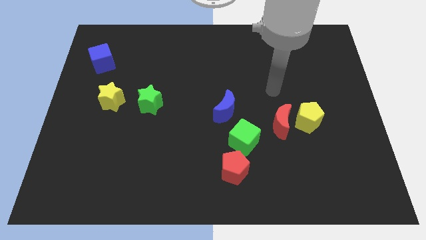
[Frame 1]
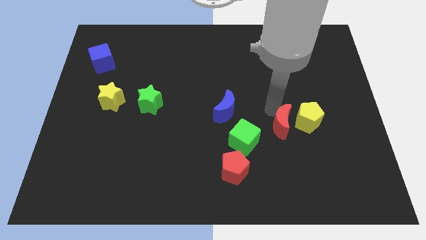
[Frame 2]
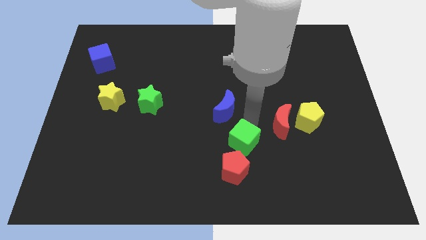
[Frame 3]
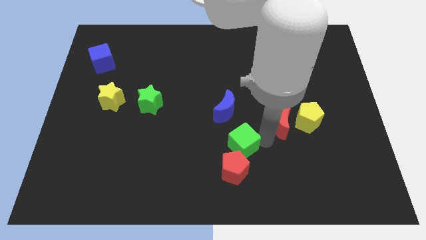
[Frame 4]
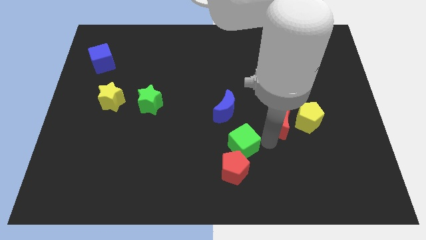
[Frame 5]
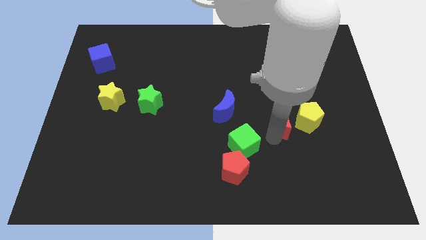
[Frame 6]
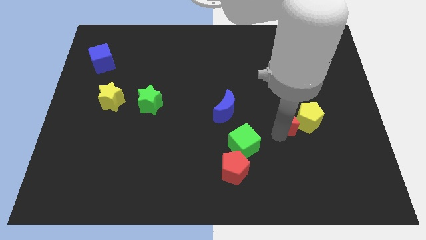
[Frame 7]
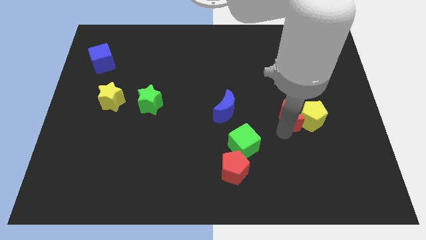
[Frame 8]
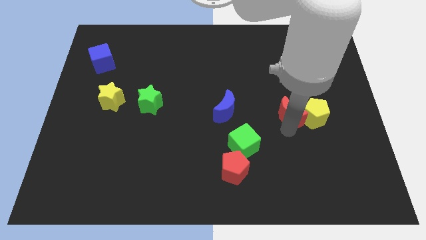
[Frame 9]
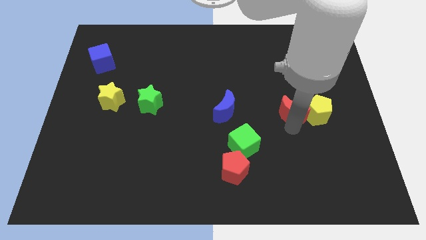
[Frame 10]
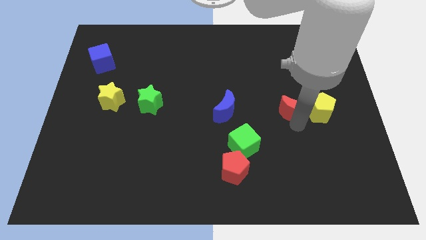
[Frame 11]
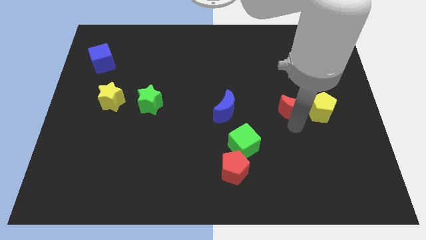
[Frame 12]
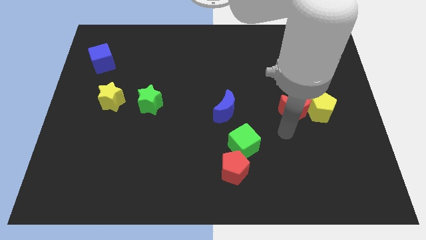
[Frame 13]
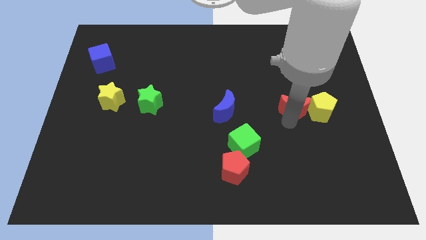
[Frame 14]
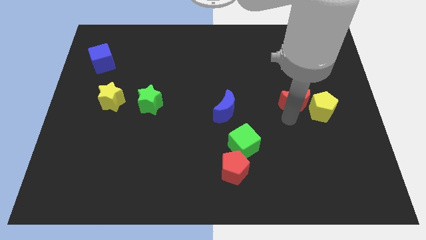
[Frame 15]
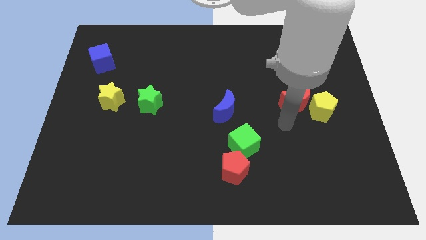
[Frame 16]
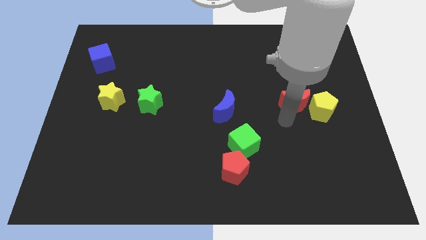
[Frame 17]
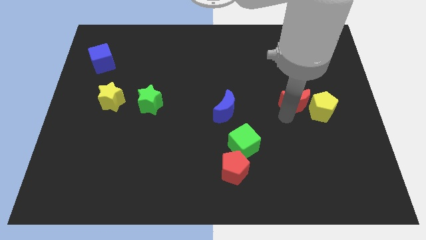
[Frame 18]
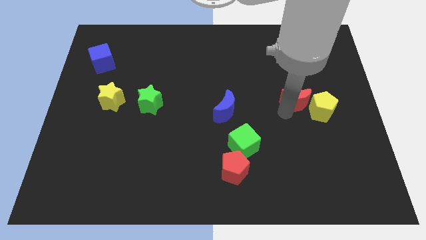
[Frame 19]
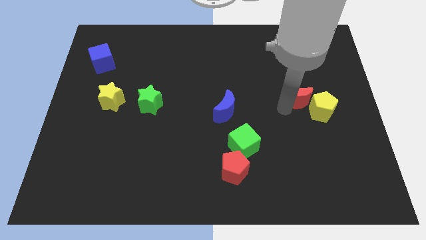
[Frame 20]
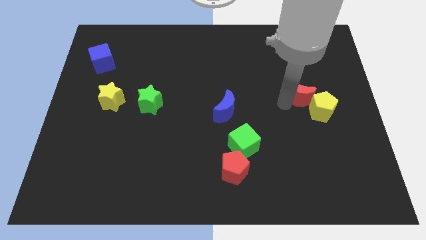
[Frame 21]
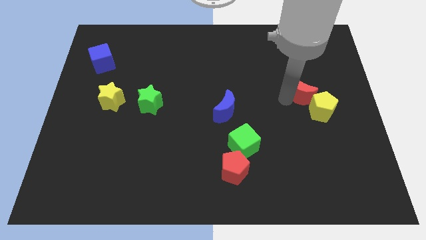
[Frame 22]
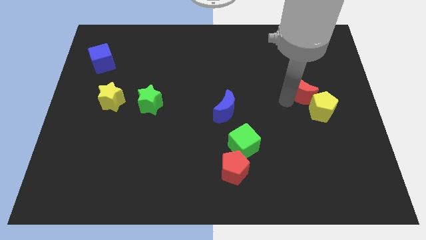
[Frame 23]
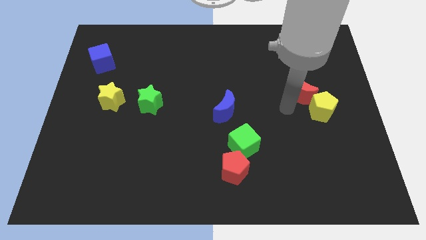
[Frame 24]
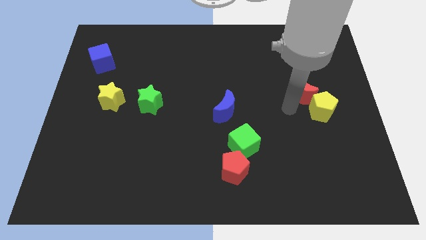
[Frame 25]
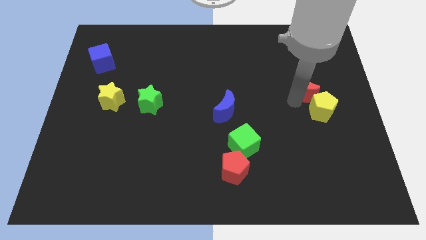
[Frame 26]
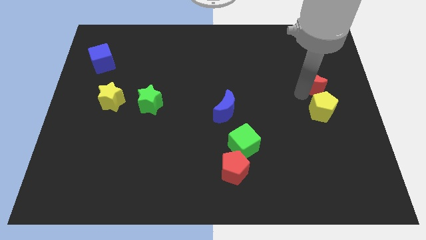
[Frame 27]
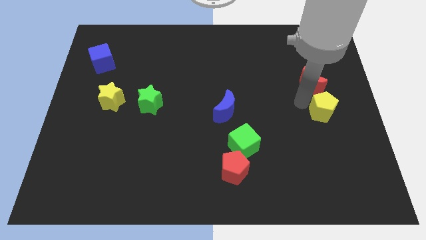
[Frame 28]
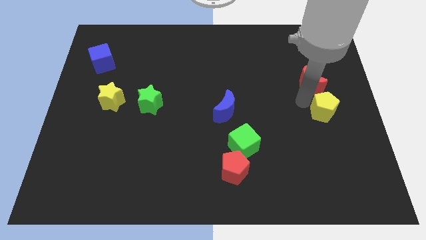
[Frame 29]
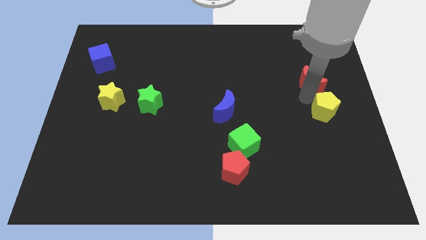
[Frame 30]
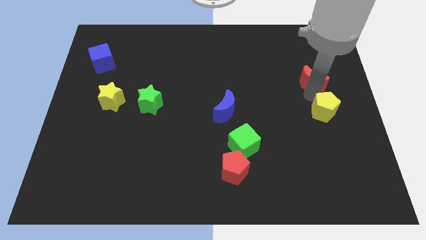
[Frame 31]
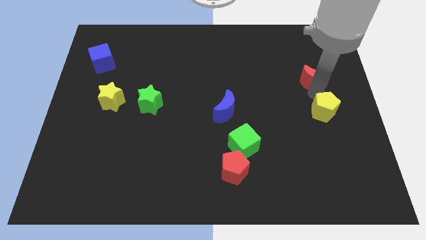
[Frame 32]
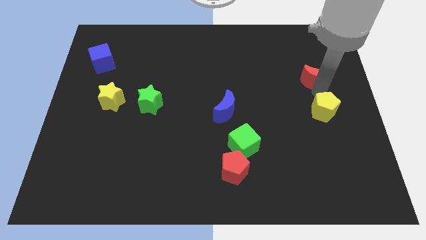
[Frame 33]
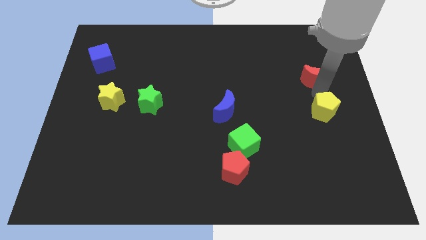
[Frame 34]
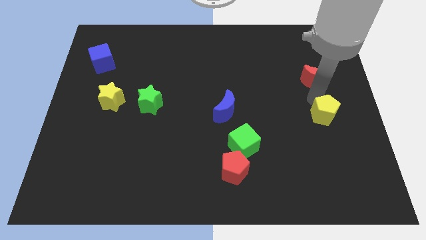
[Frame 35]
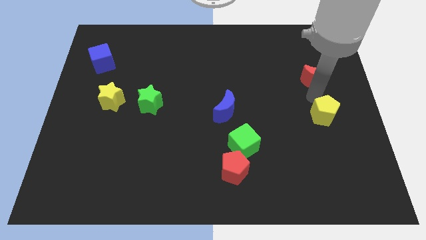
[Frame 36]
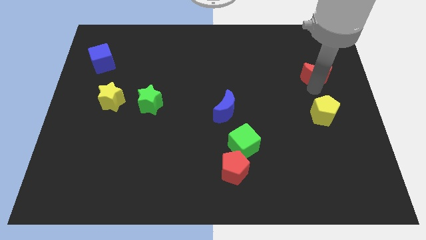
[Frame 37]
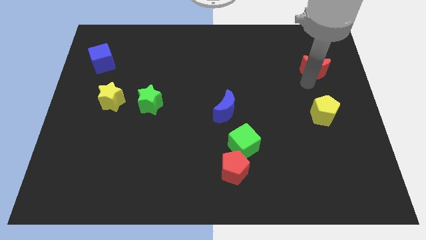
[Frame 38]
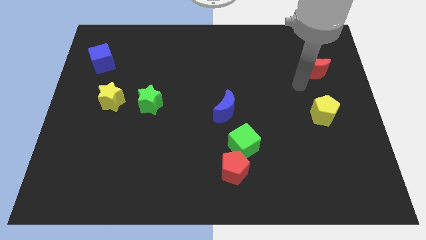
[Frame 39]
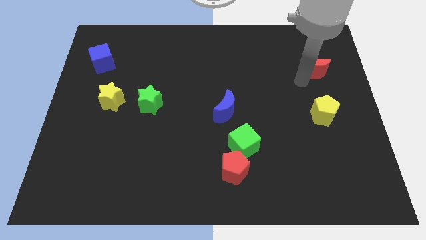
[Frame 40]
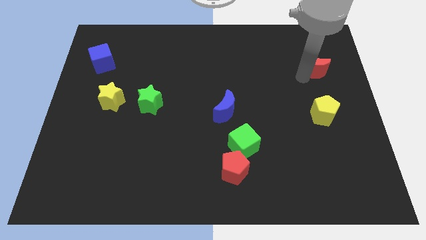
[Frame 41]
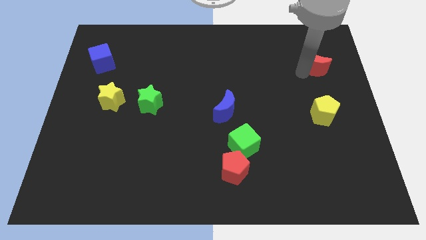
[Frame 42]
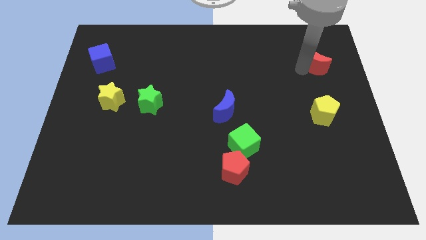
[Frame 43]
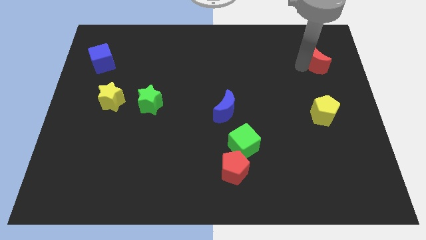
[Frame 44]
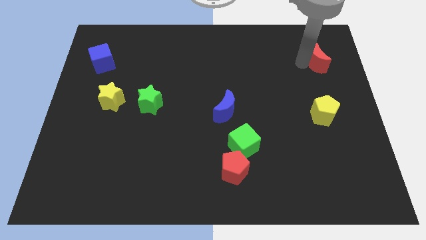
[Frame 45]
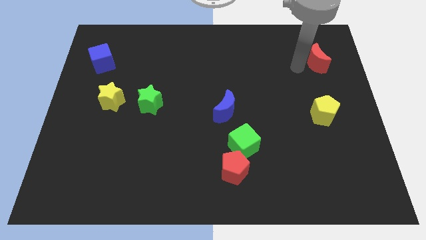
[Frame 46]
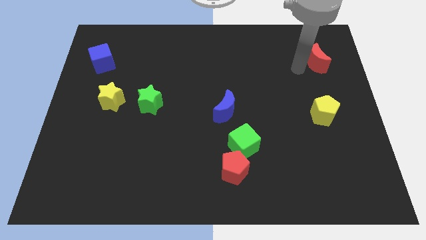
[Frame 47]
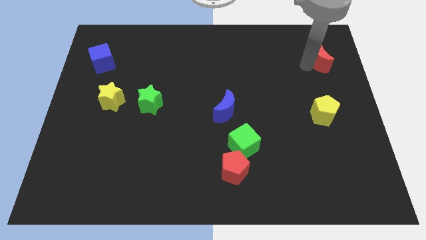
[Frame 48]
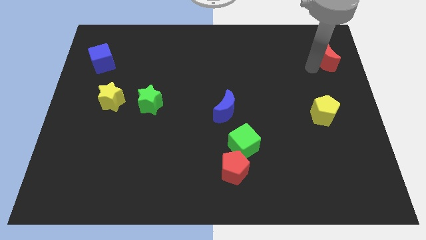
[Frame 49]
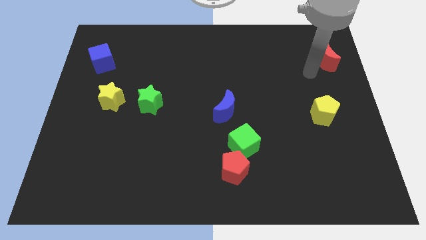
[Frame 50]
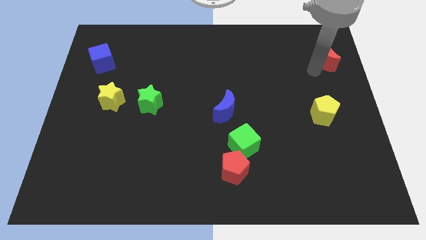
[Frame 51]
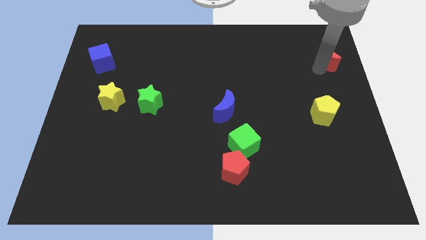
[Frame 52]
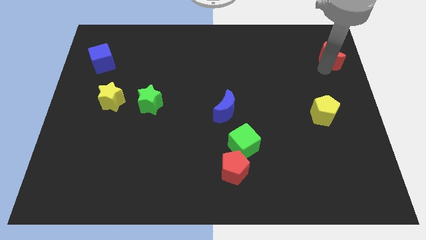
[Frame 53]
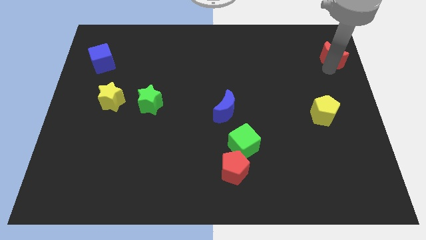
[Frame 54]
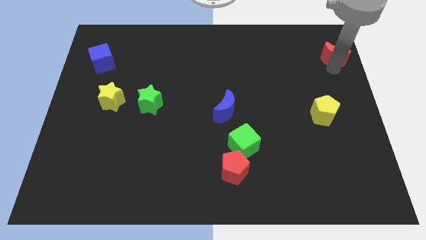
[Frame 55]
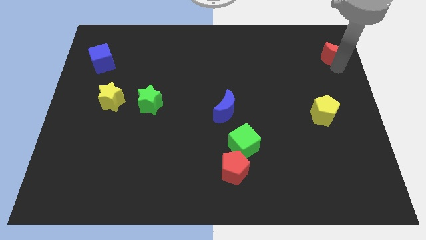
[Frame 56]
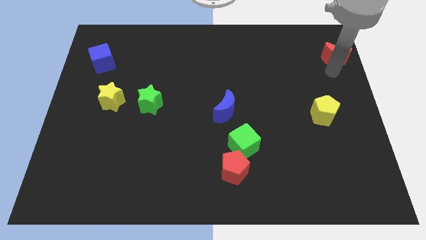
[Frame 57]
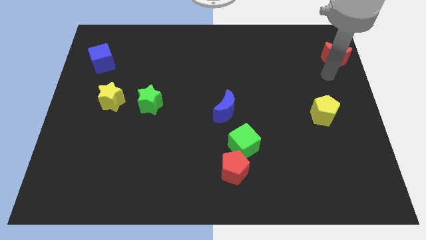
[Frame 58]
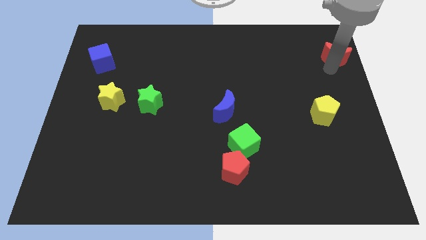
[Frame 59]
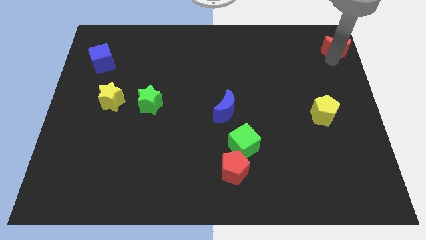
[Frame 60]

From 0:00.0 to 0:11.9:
move the red moon to the top right of the board

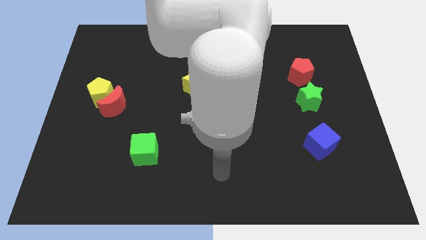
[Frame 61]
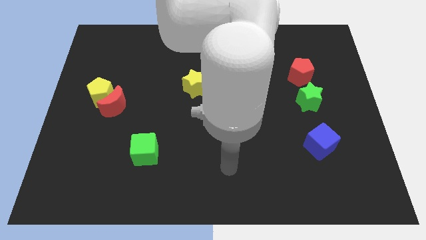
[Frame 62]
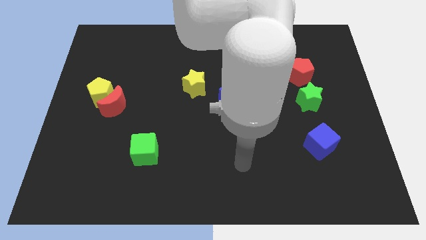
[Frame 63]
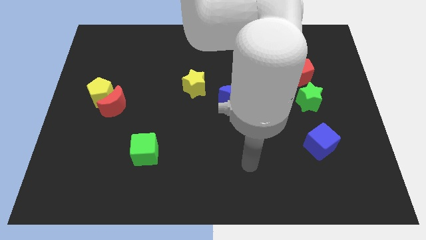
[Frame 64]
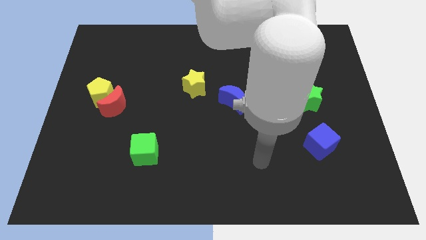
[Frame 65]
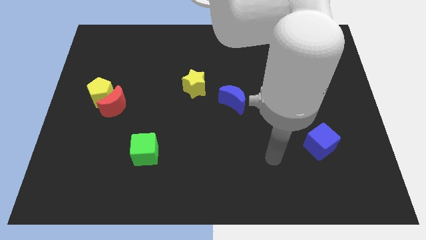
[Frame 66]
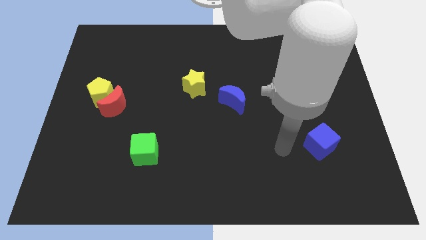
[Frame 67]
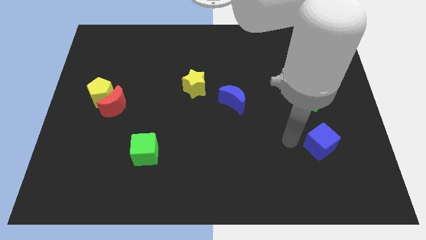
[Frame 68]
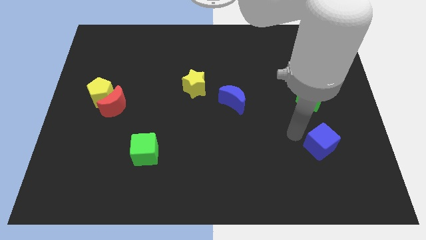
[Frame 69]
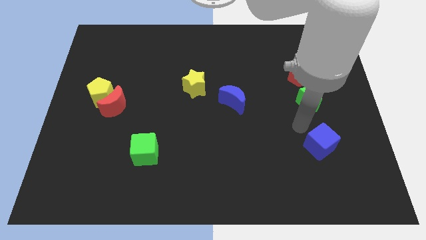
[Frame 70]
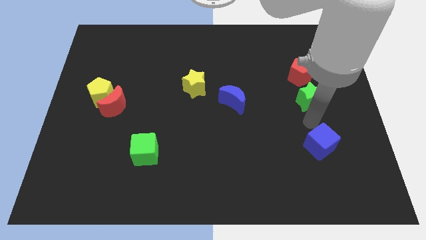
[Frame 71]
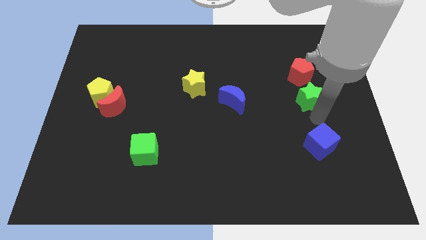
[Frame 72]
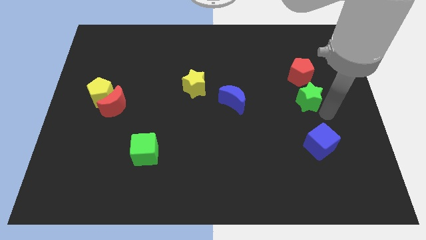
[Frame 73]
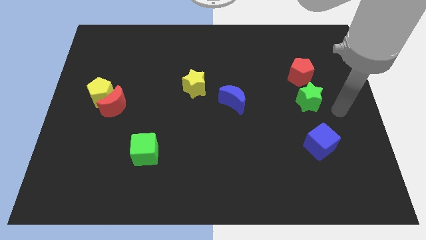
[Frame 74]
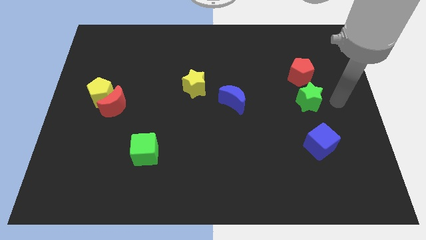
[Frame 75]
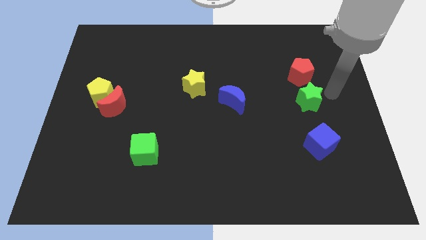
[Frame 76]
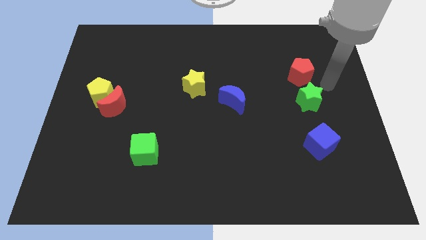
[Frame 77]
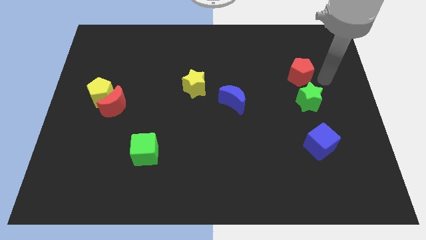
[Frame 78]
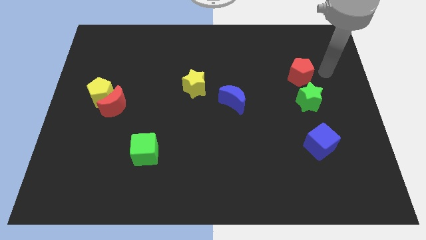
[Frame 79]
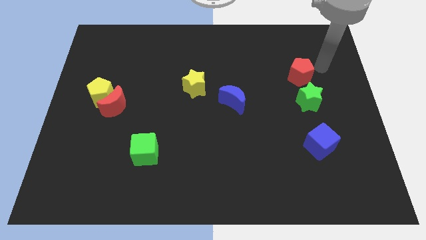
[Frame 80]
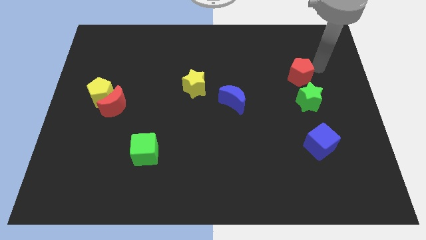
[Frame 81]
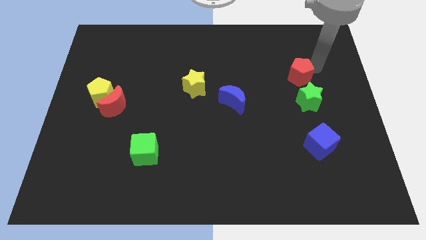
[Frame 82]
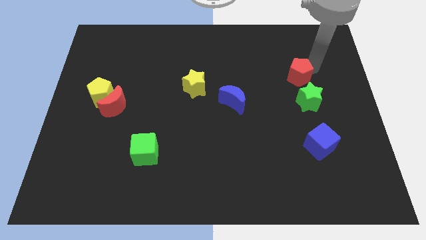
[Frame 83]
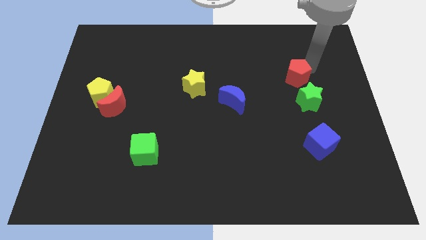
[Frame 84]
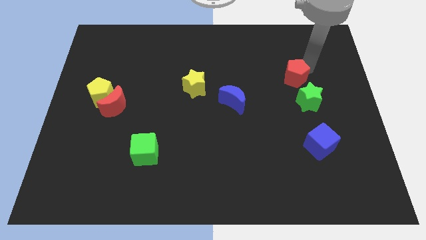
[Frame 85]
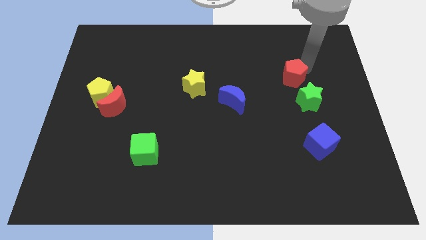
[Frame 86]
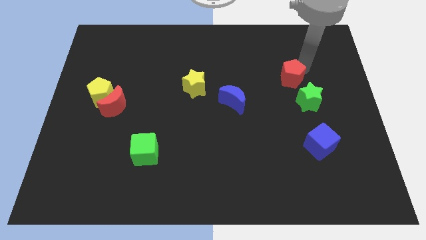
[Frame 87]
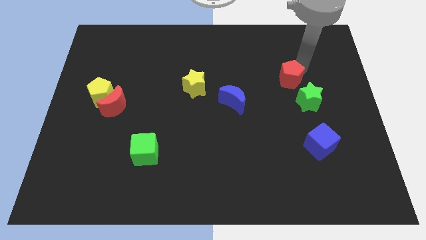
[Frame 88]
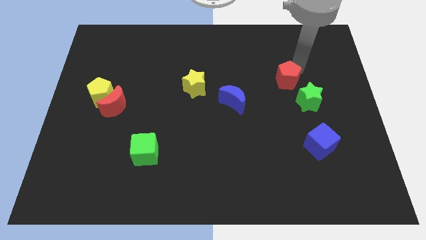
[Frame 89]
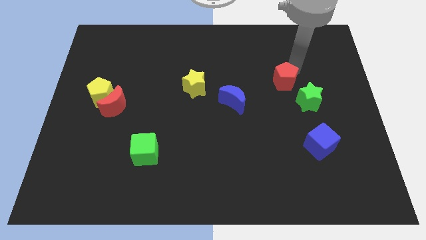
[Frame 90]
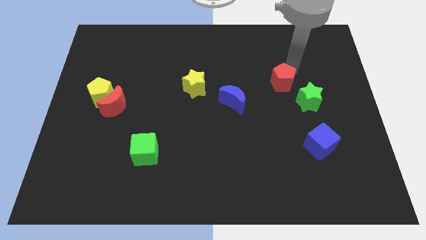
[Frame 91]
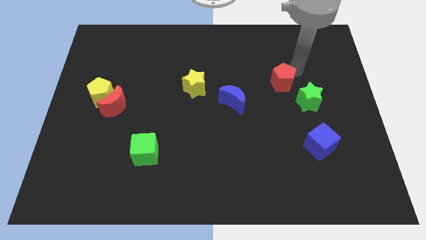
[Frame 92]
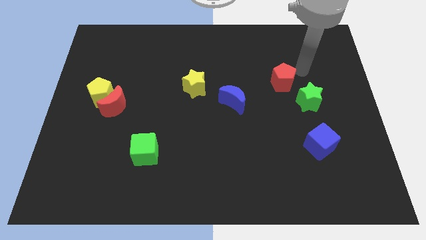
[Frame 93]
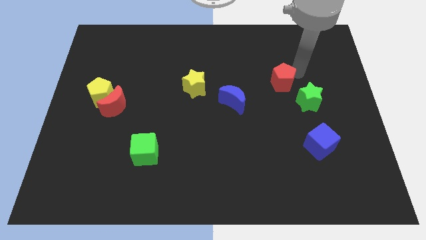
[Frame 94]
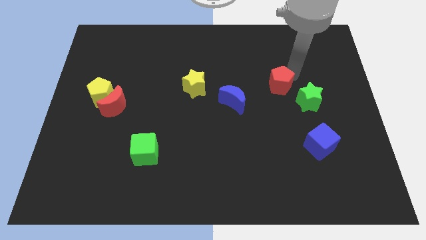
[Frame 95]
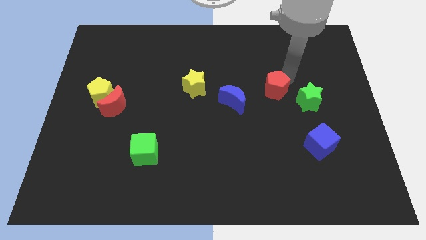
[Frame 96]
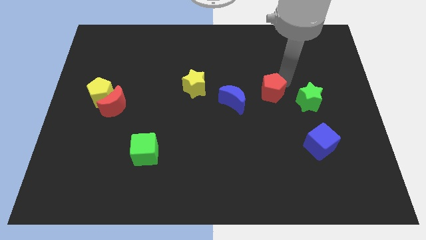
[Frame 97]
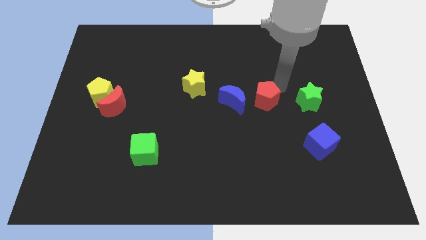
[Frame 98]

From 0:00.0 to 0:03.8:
push the red pentagon to the middle
